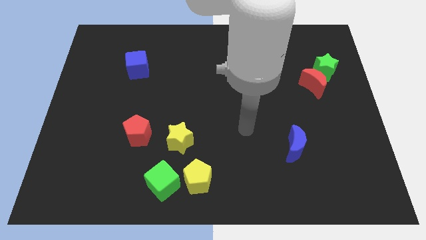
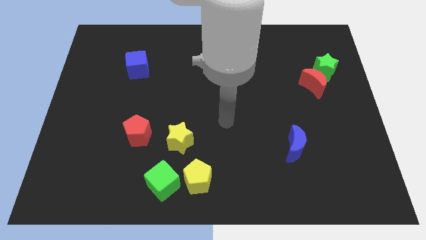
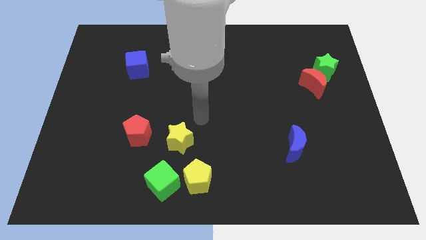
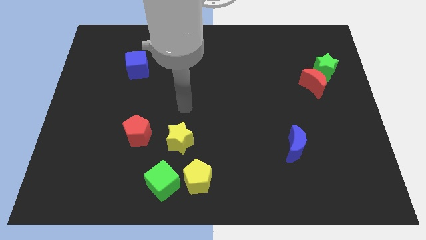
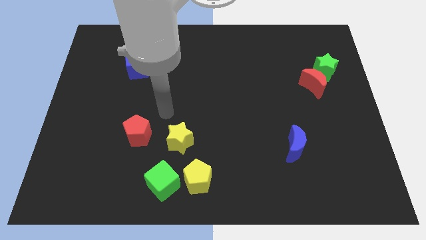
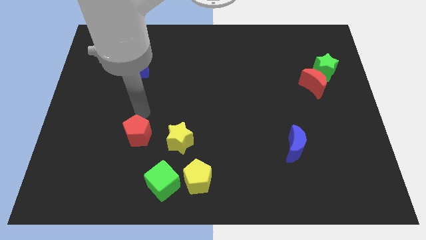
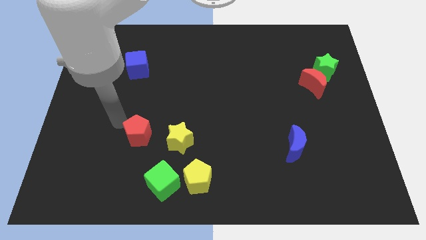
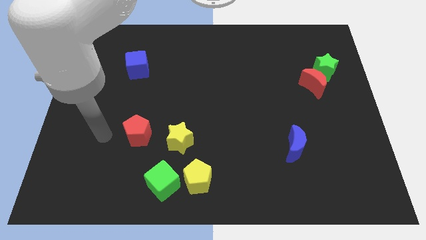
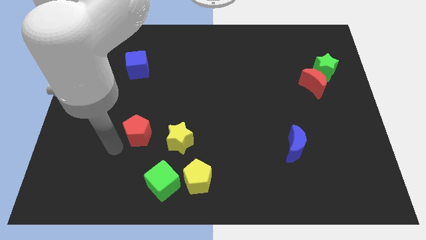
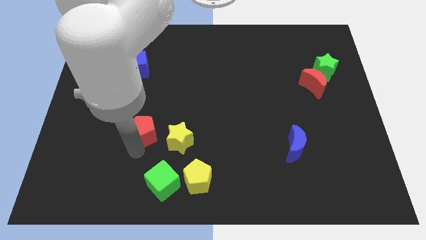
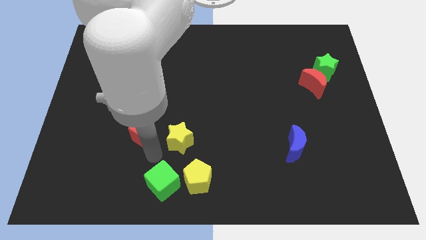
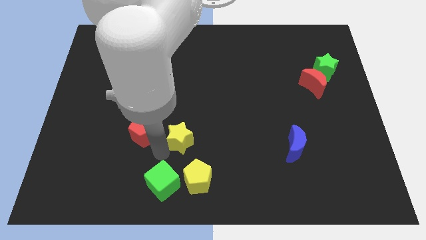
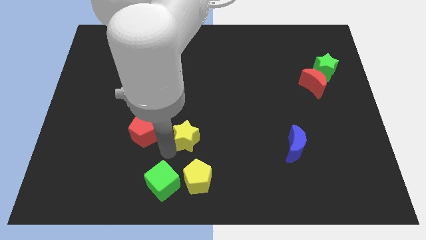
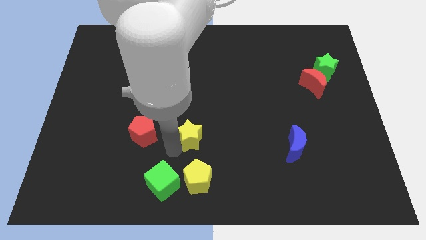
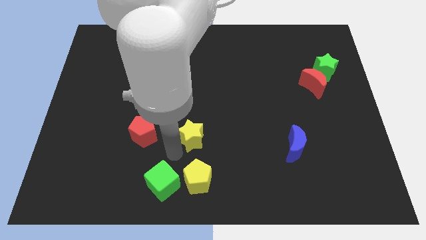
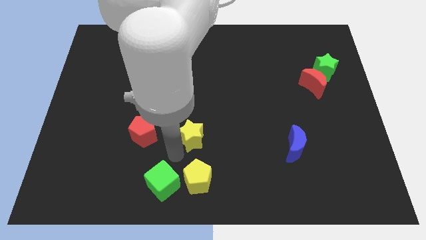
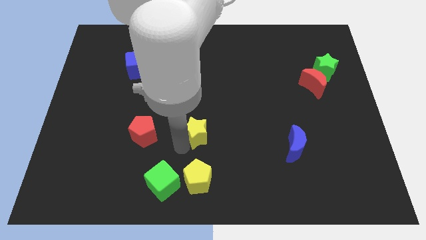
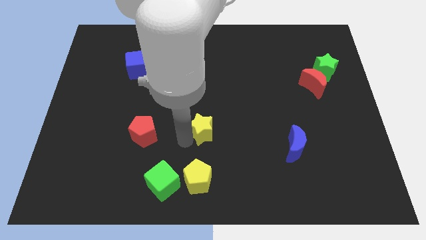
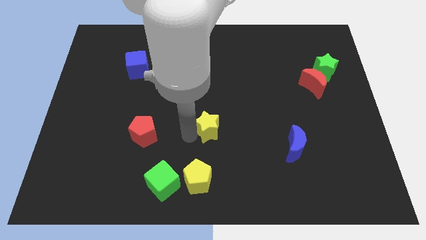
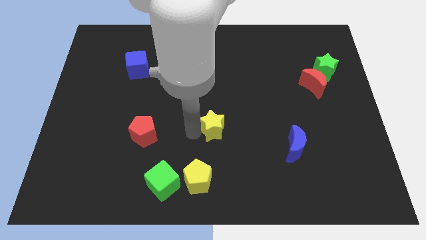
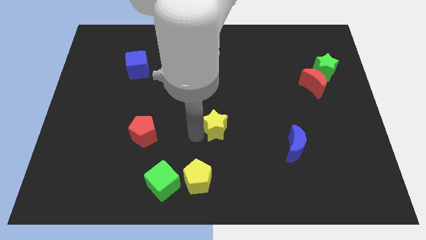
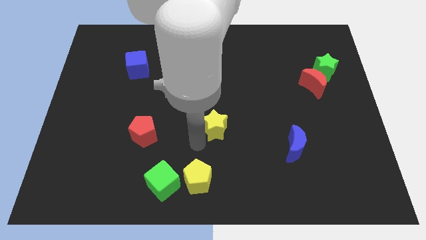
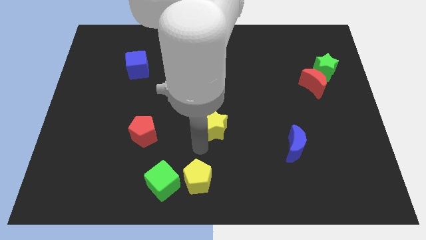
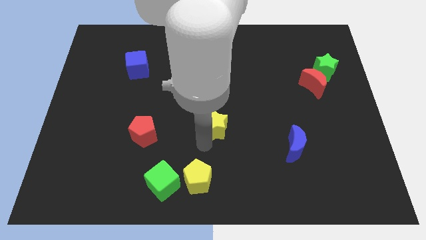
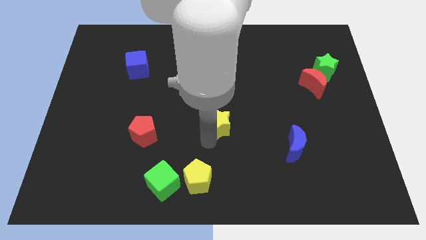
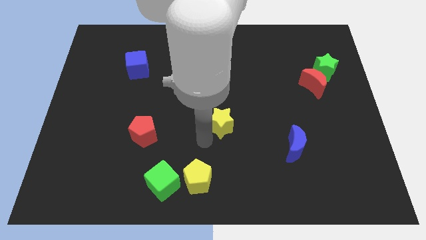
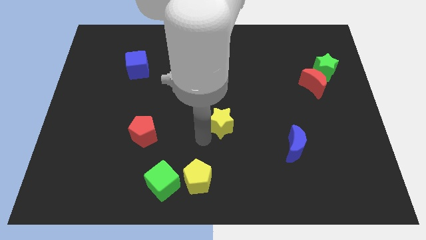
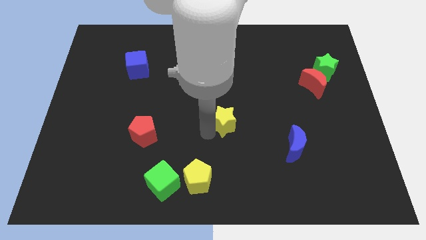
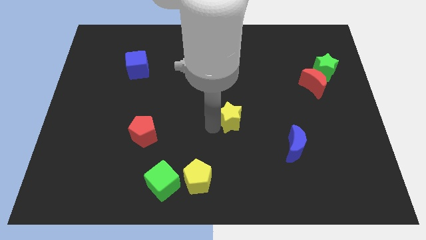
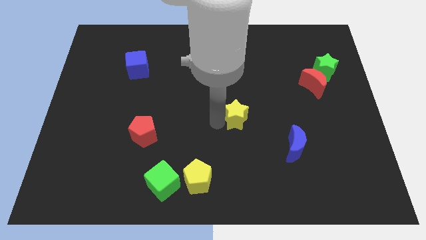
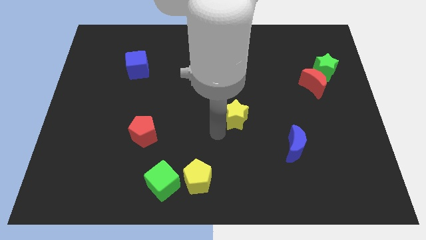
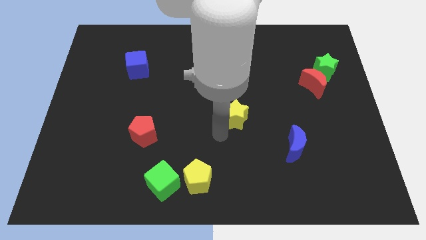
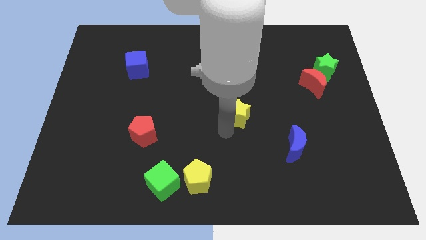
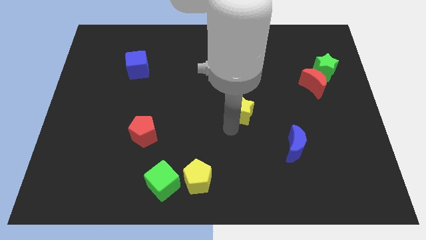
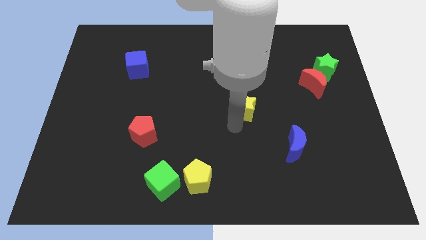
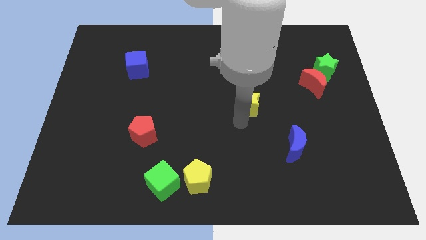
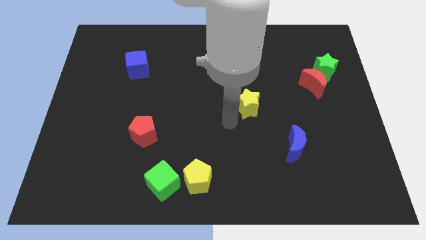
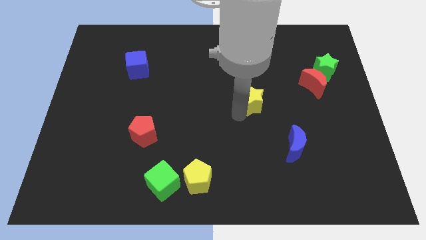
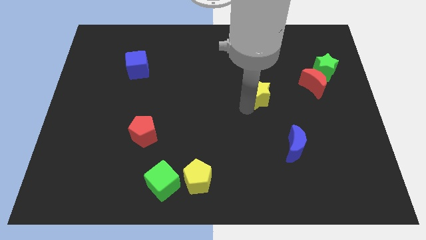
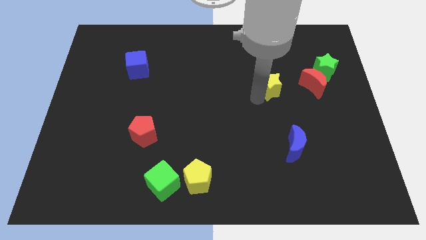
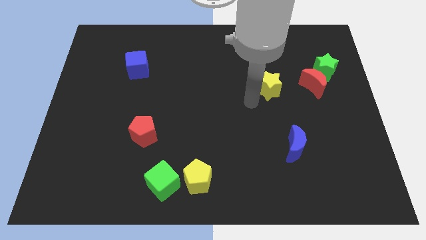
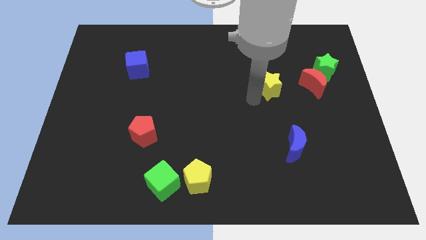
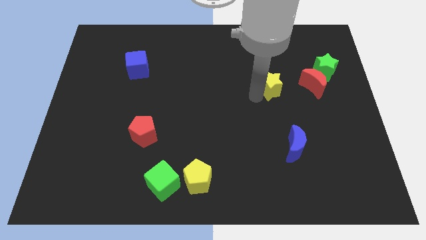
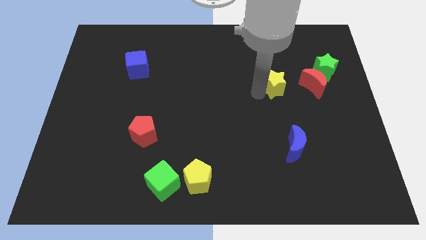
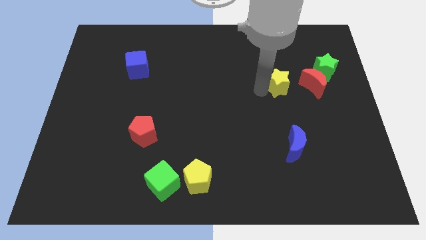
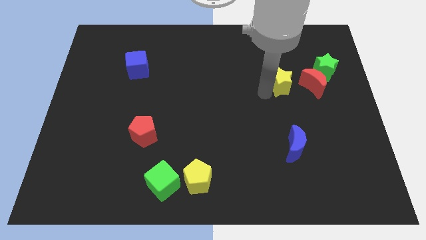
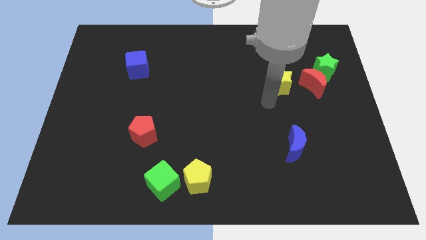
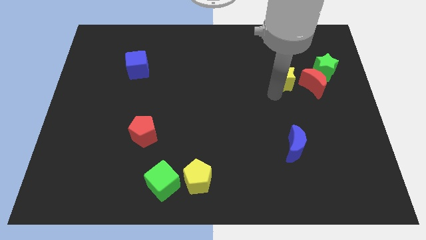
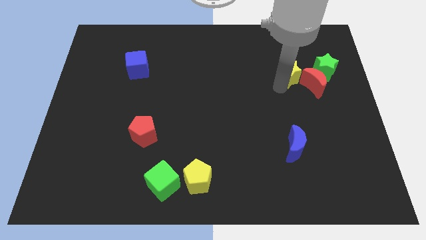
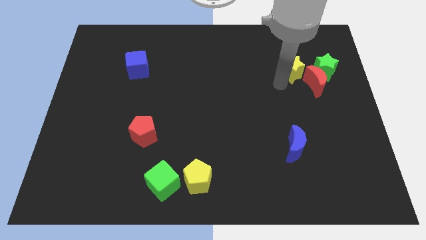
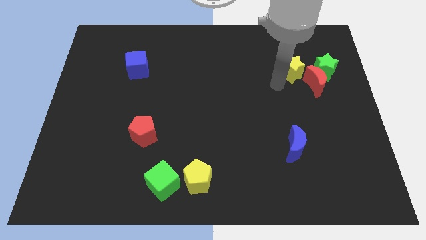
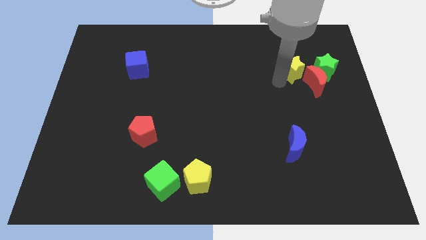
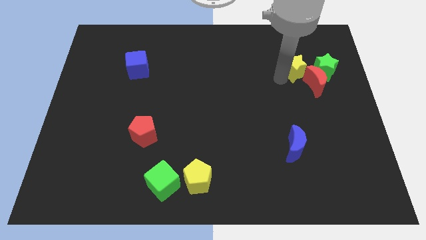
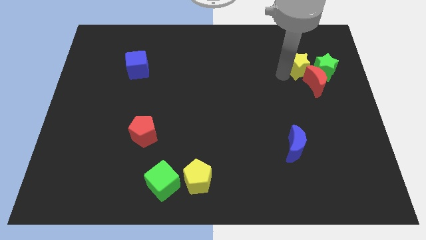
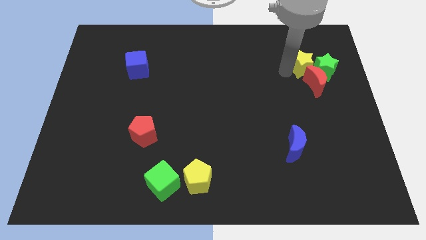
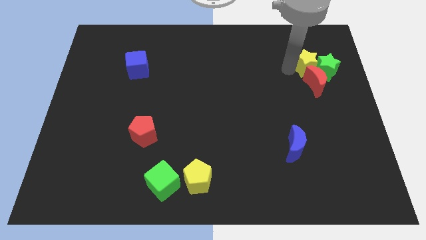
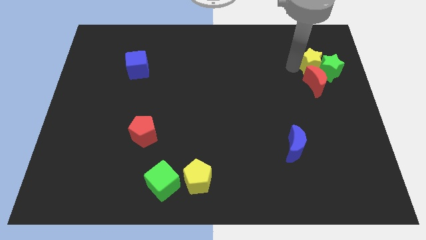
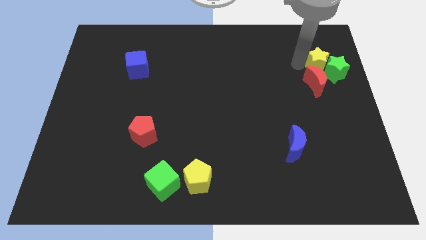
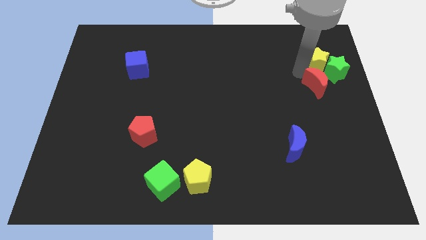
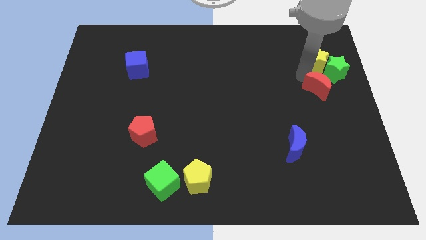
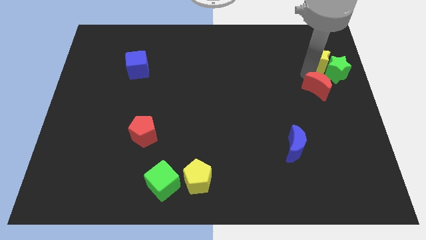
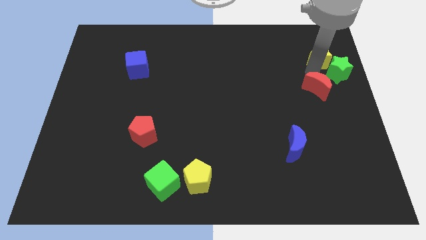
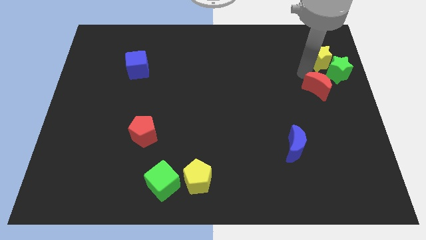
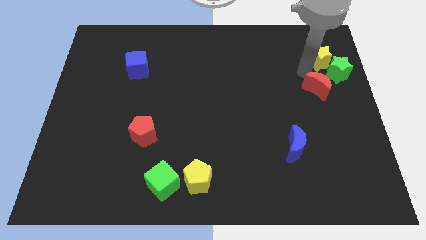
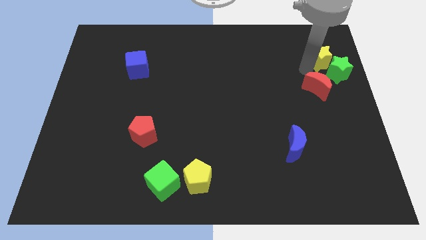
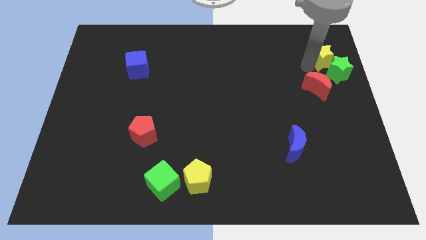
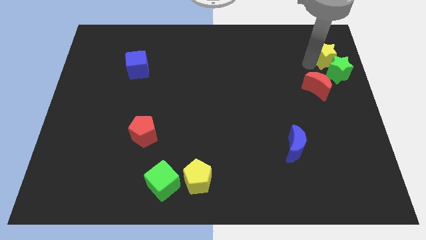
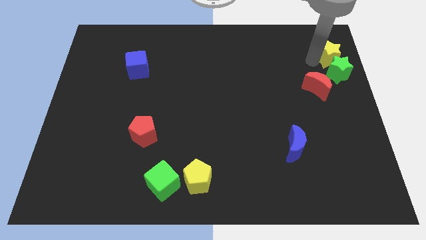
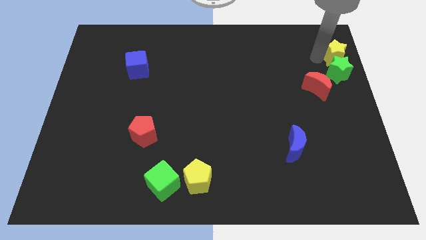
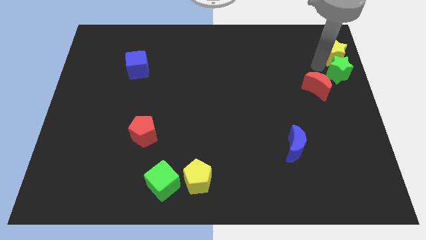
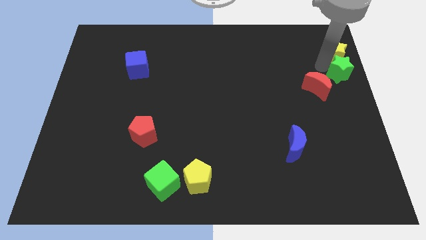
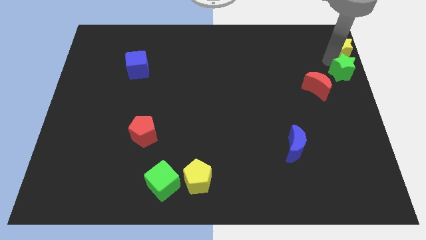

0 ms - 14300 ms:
move the yellow star to the top right corner

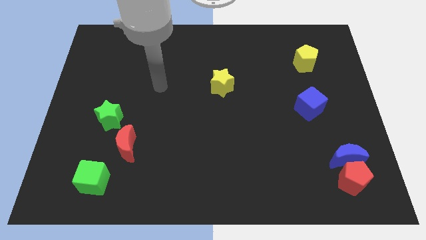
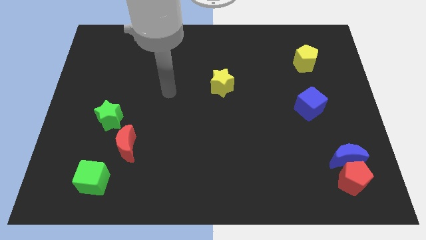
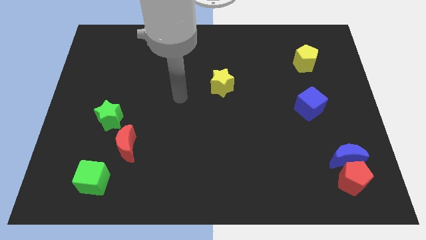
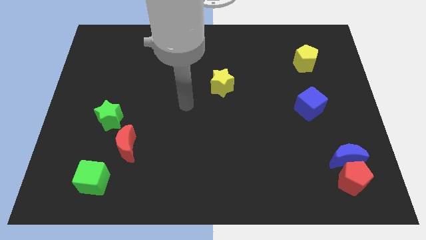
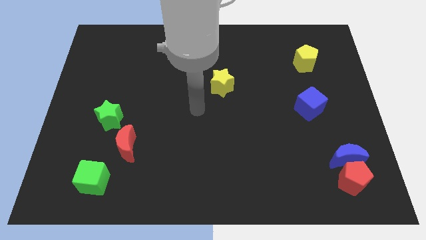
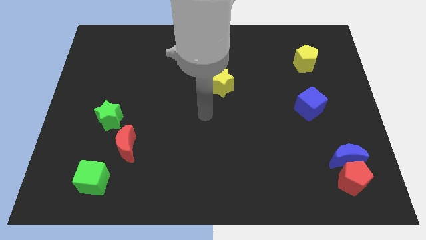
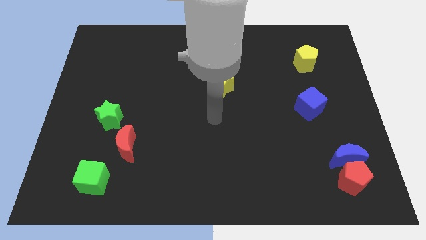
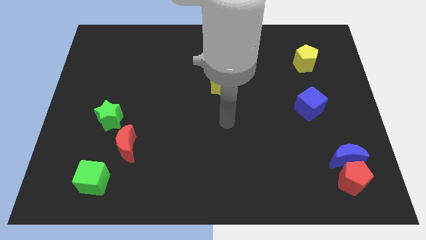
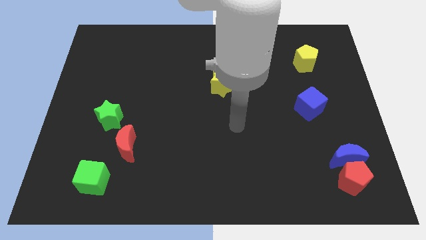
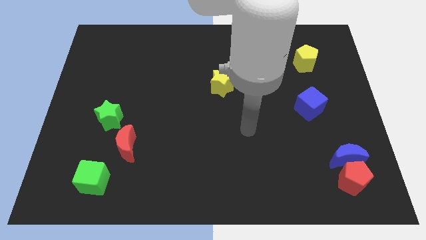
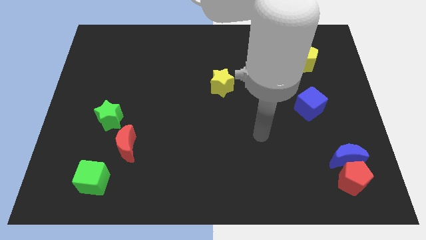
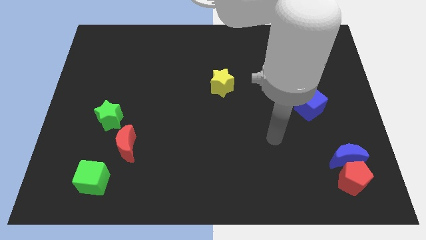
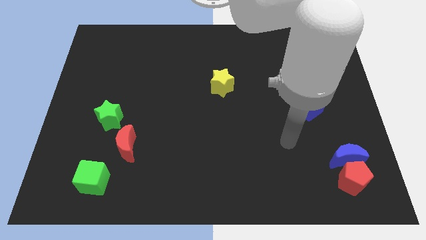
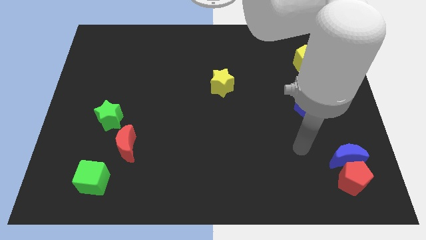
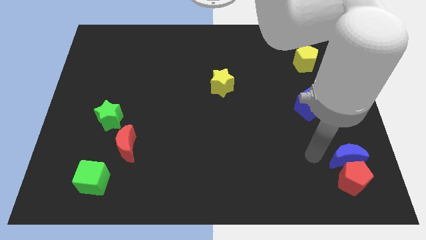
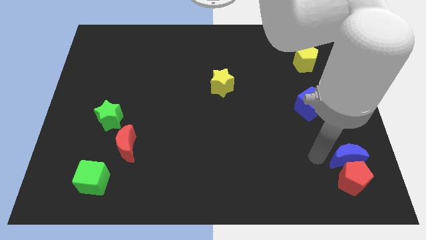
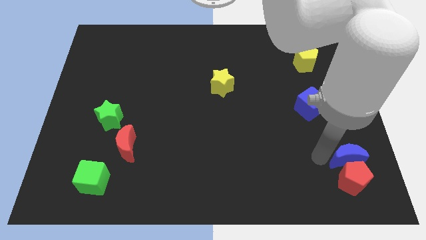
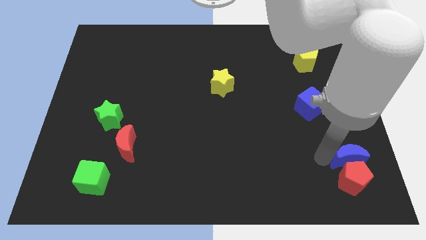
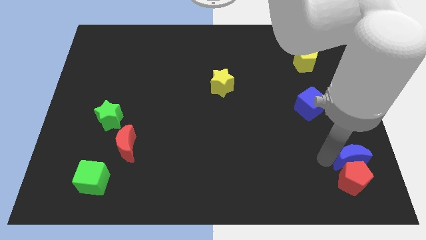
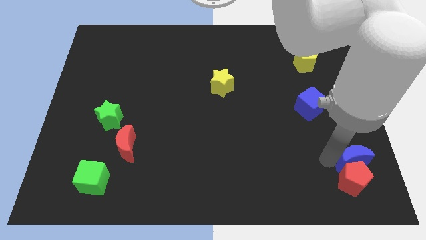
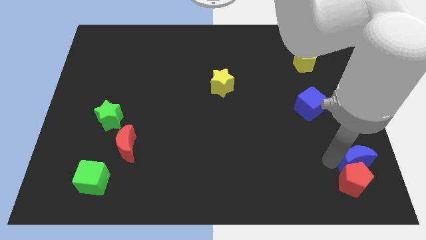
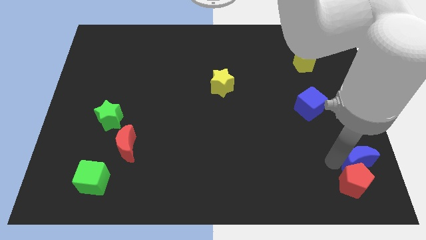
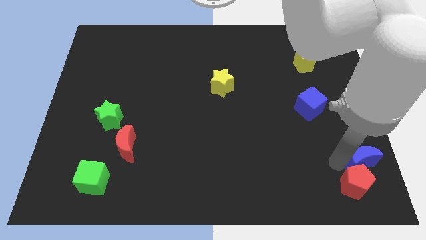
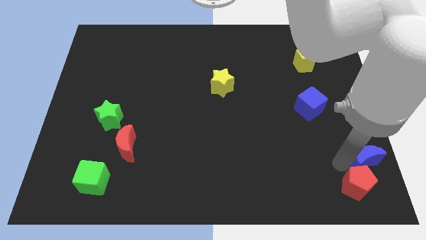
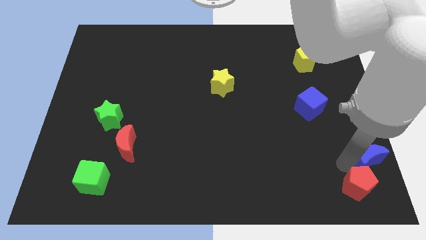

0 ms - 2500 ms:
put the blue moon to the bottom right of the board
